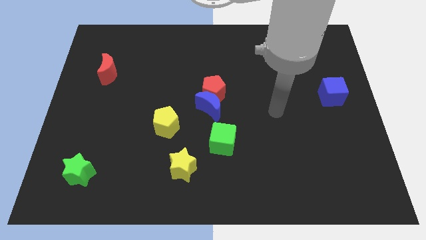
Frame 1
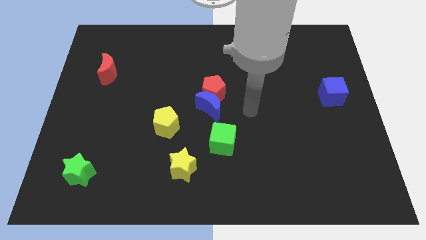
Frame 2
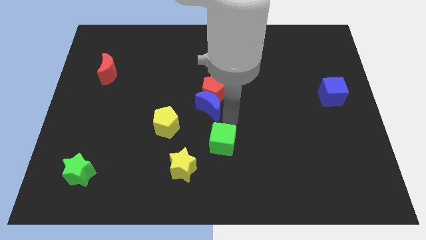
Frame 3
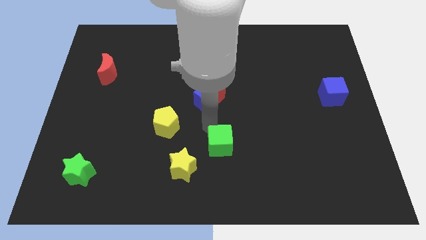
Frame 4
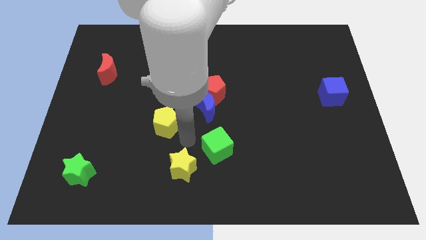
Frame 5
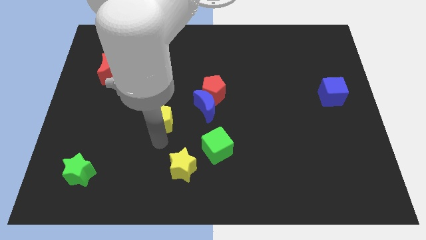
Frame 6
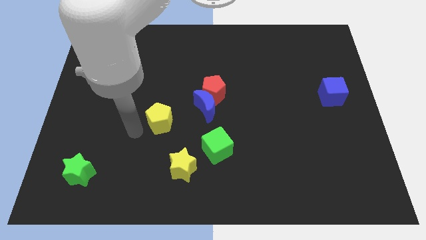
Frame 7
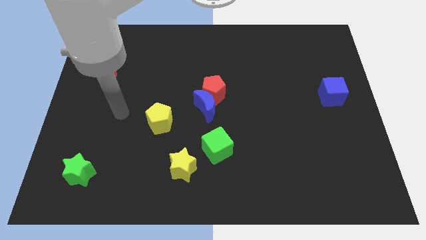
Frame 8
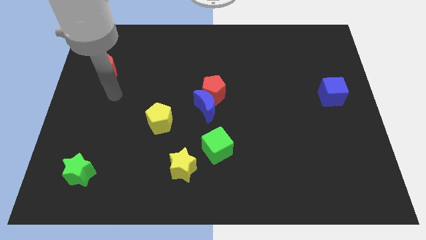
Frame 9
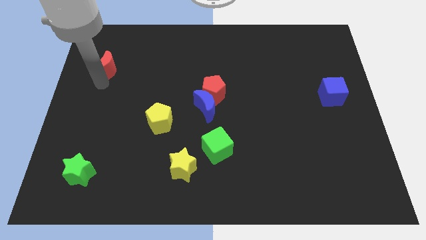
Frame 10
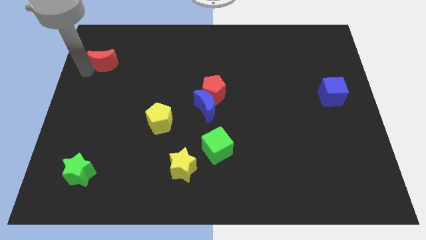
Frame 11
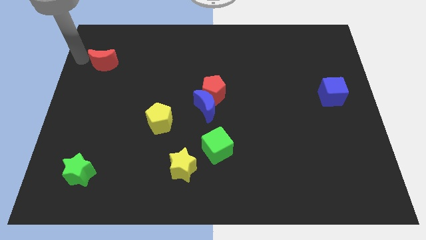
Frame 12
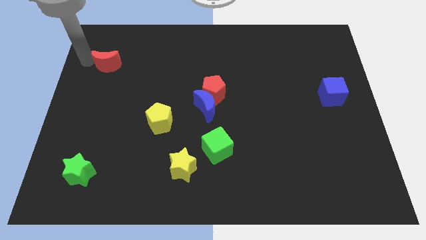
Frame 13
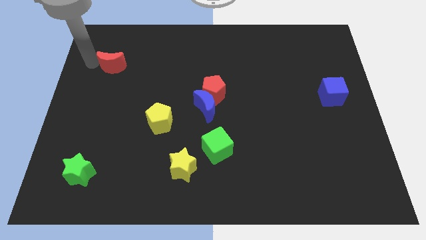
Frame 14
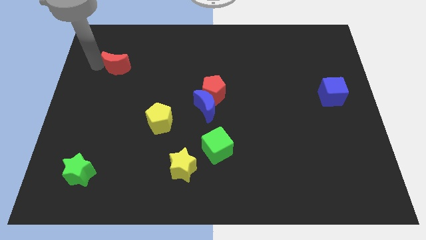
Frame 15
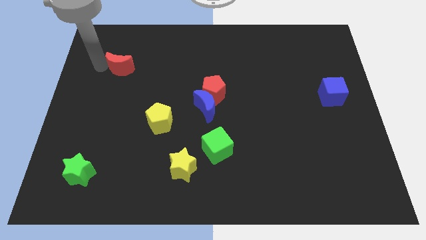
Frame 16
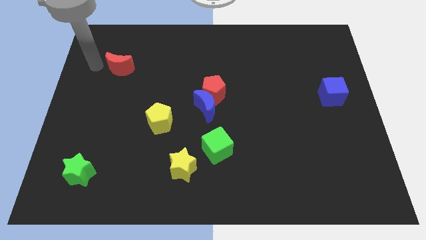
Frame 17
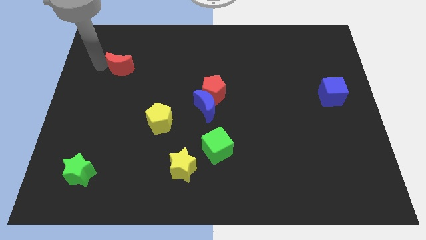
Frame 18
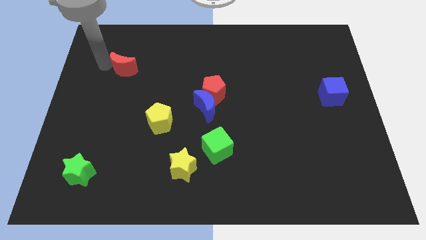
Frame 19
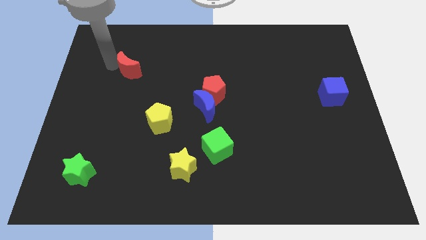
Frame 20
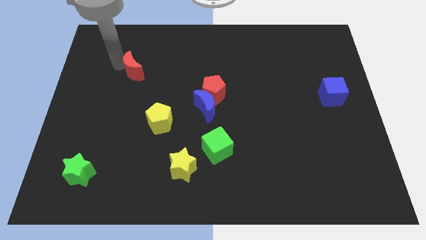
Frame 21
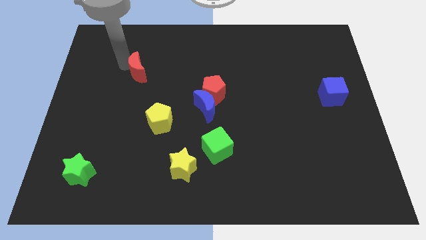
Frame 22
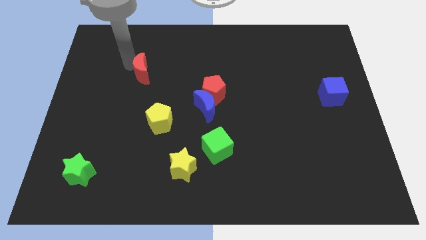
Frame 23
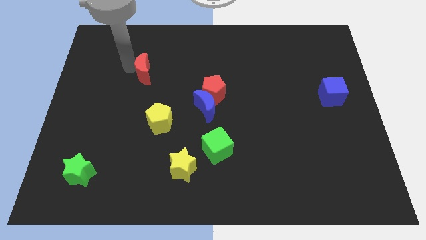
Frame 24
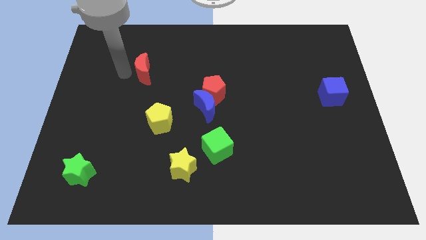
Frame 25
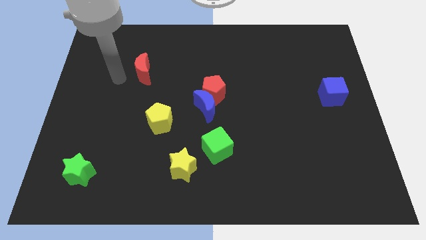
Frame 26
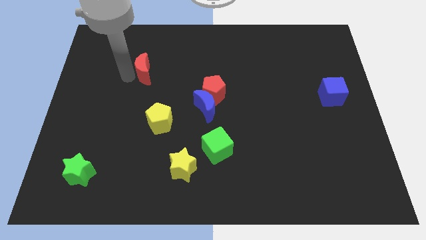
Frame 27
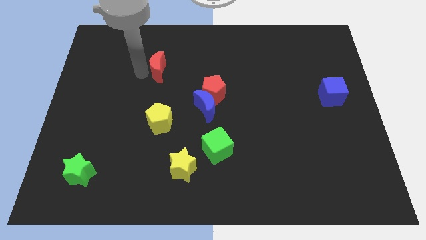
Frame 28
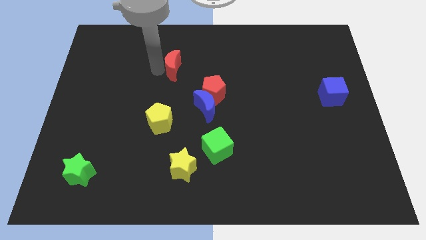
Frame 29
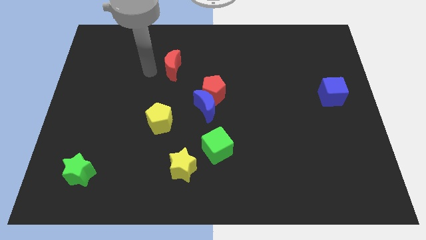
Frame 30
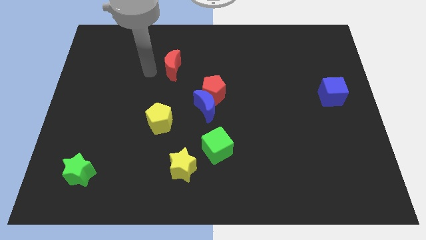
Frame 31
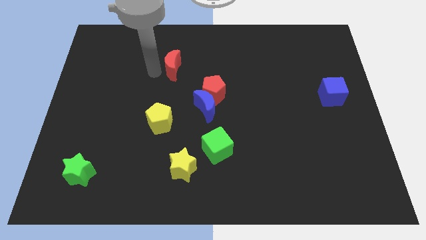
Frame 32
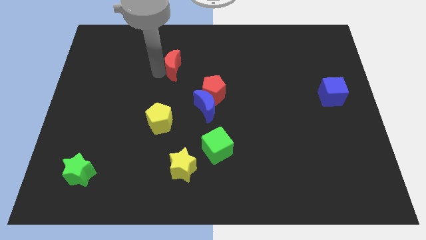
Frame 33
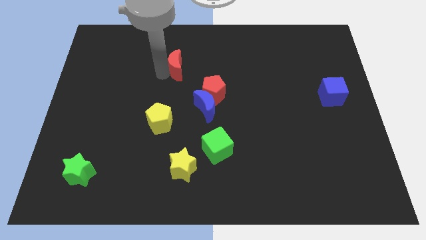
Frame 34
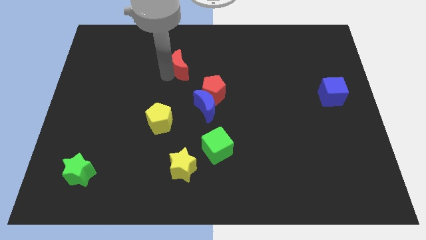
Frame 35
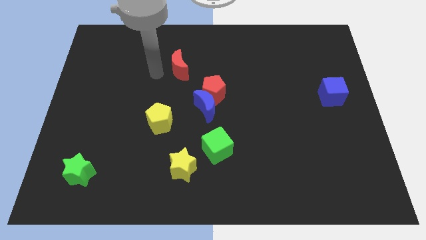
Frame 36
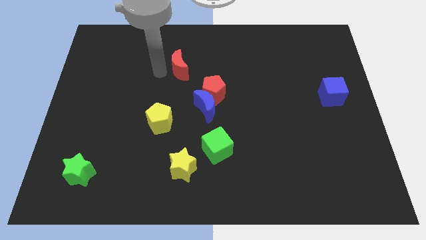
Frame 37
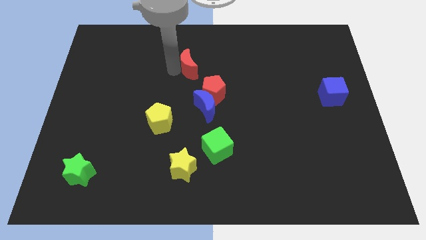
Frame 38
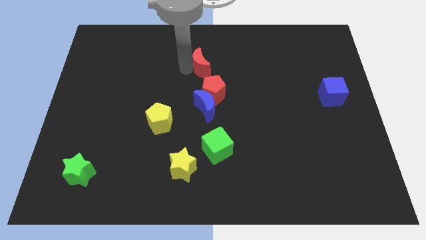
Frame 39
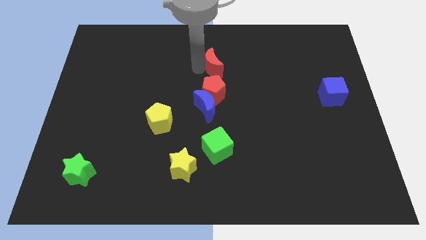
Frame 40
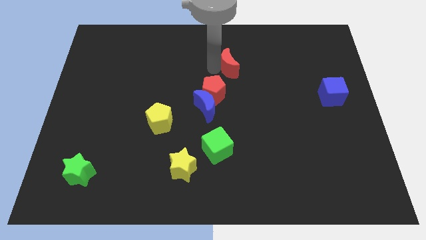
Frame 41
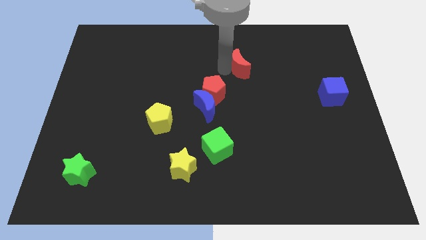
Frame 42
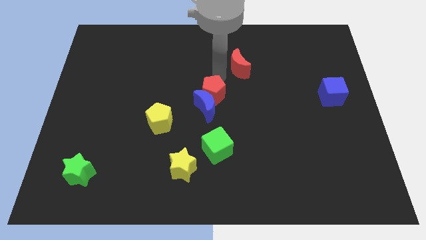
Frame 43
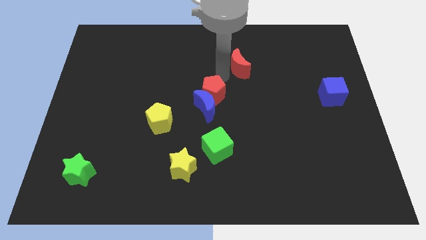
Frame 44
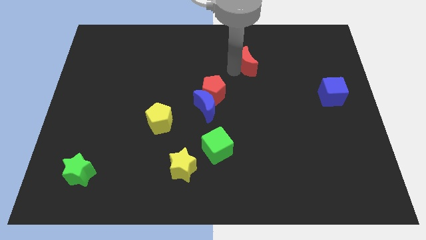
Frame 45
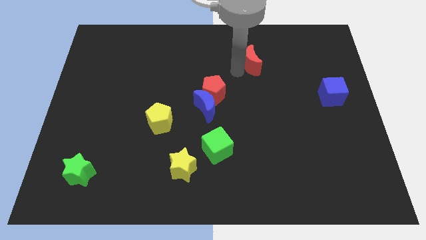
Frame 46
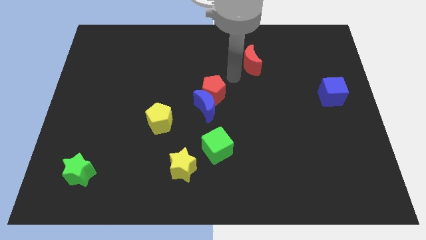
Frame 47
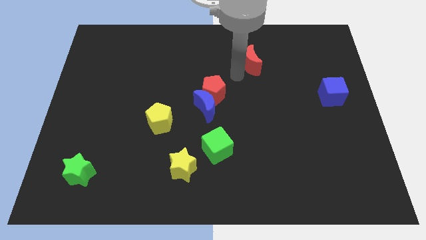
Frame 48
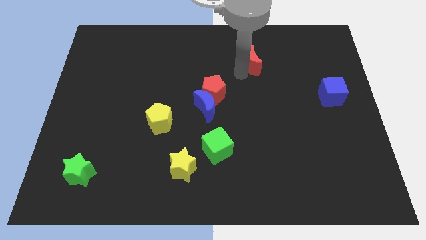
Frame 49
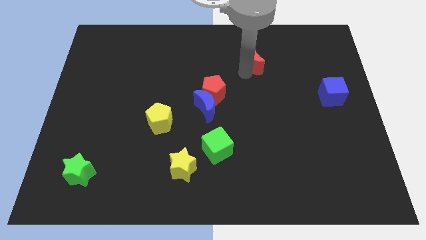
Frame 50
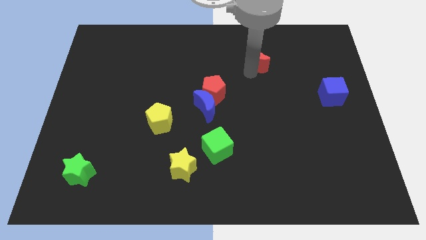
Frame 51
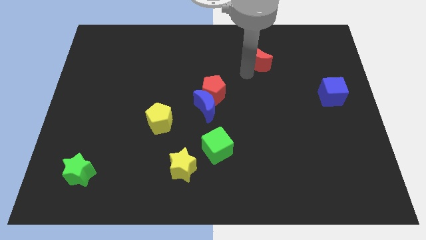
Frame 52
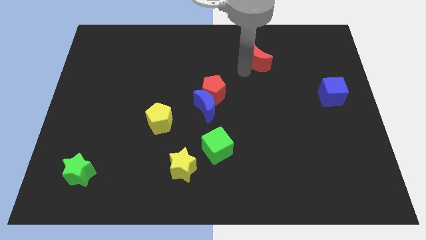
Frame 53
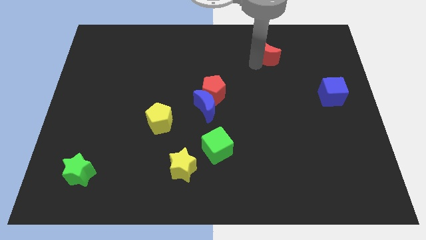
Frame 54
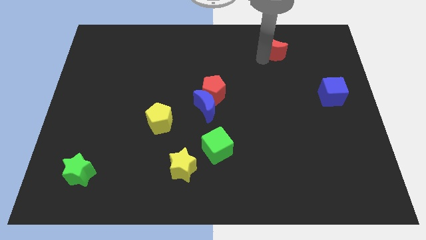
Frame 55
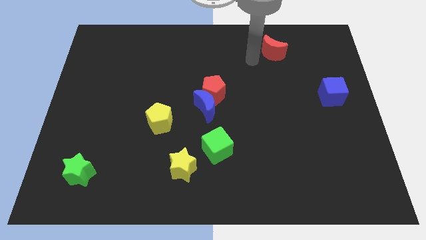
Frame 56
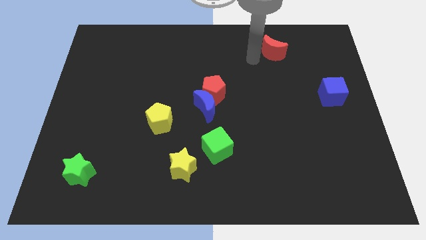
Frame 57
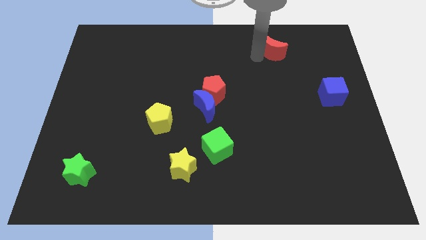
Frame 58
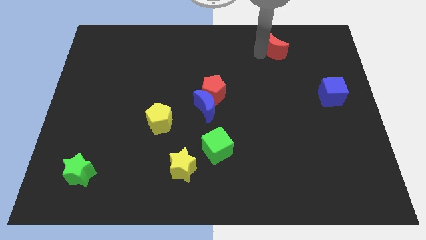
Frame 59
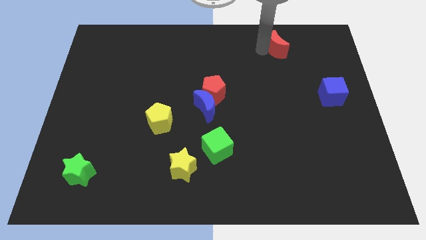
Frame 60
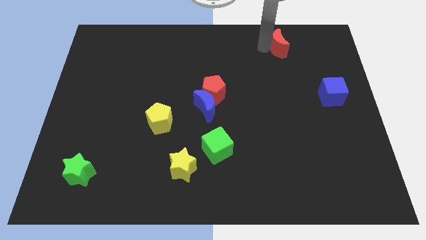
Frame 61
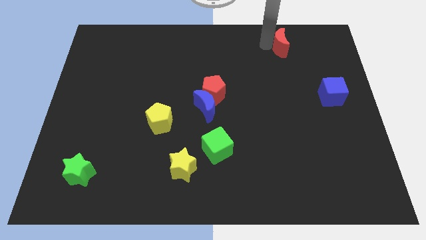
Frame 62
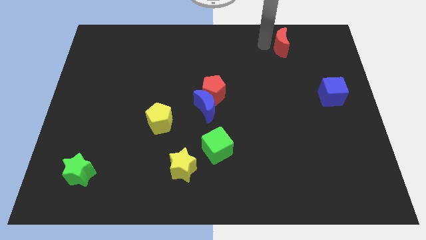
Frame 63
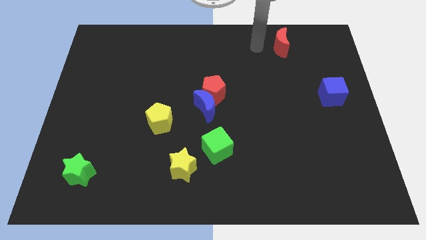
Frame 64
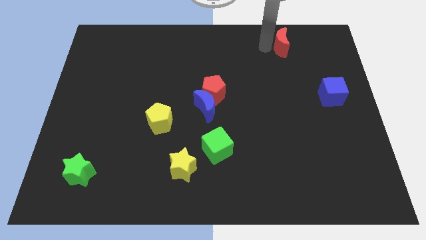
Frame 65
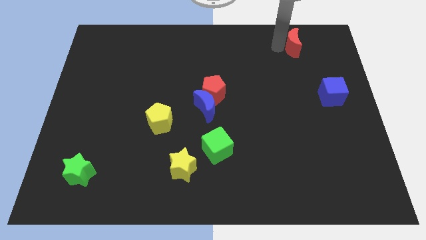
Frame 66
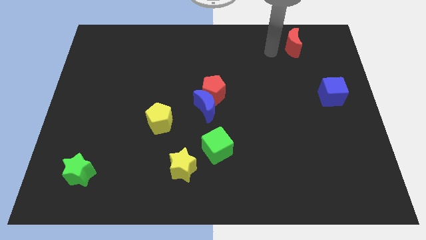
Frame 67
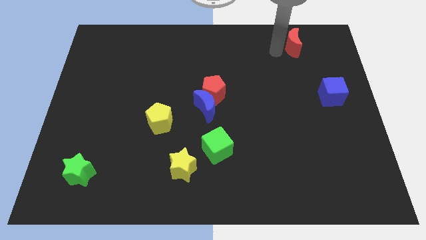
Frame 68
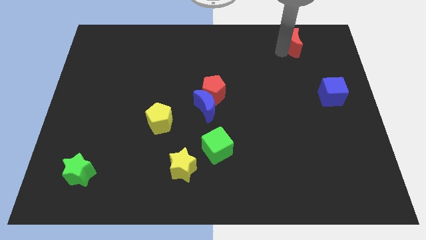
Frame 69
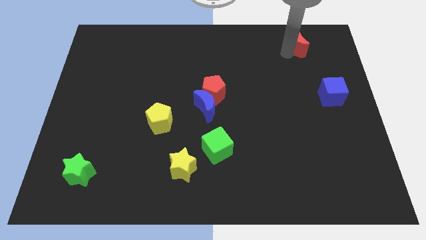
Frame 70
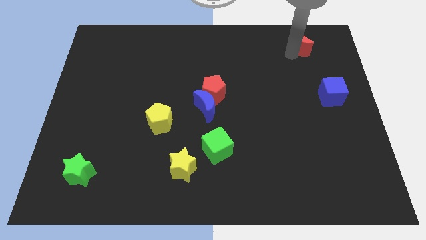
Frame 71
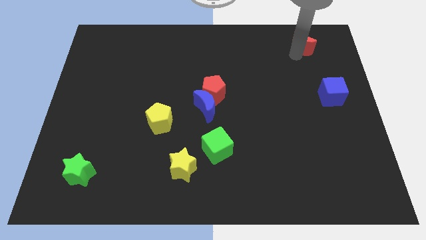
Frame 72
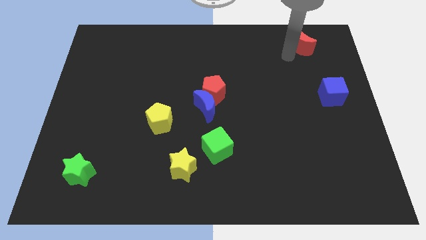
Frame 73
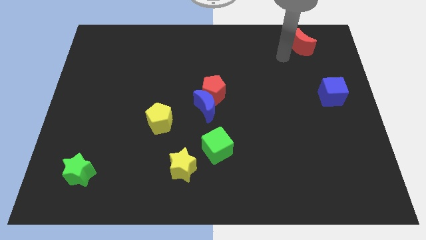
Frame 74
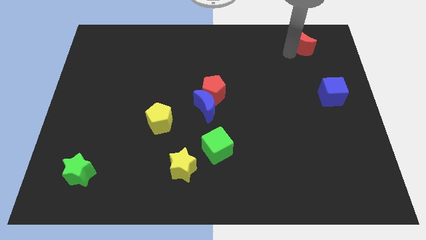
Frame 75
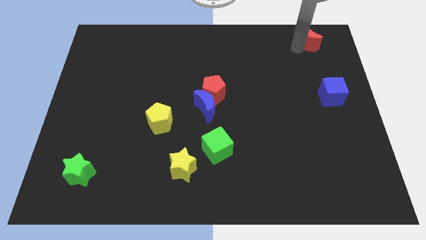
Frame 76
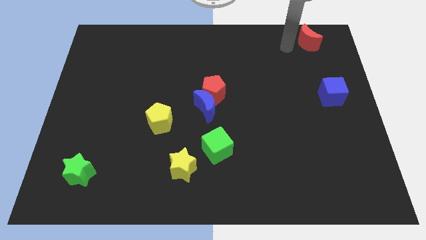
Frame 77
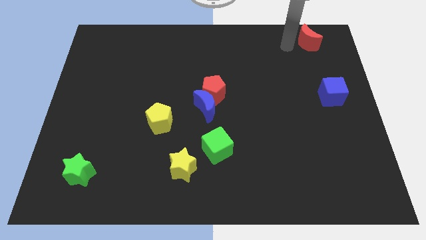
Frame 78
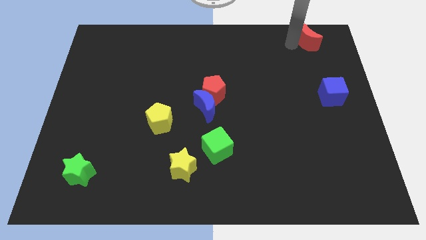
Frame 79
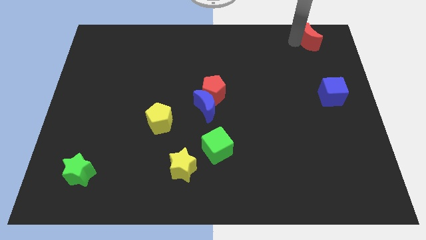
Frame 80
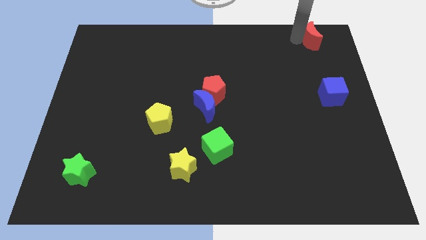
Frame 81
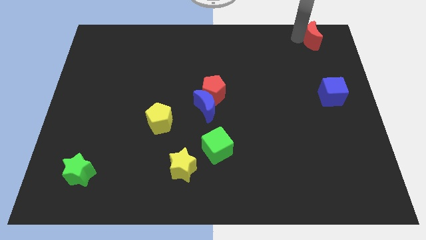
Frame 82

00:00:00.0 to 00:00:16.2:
put the red moon to the upper right corner
